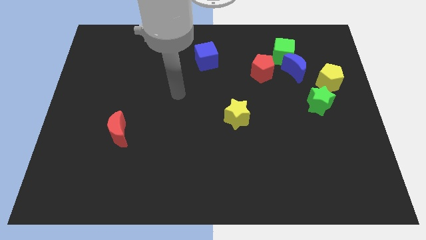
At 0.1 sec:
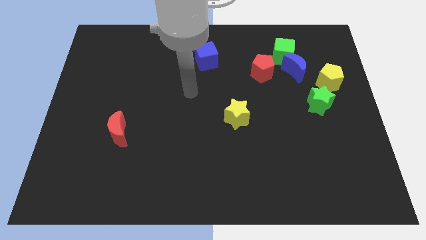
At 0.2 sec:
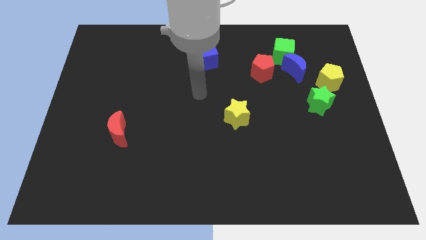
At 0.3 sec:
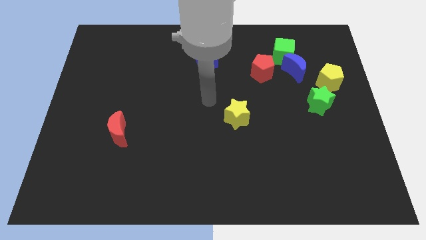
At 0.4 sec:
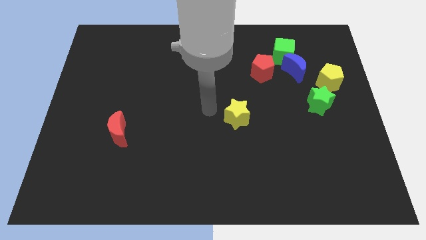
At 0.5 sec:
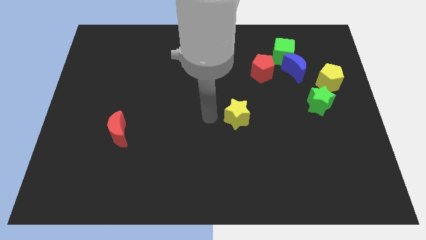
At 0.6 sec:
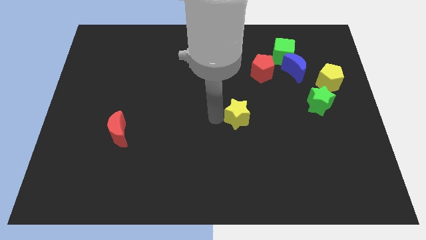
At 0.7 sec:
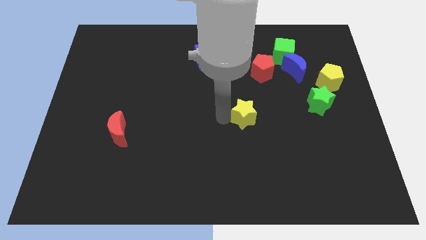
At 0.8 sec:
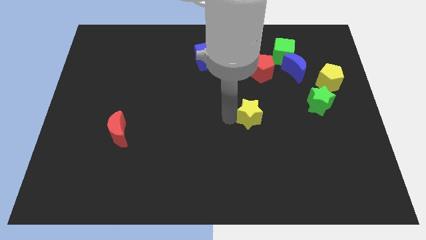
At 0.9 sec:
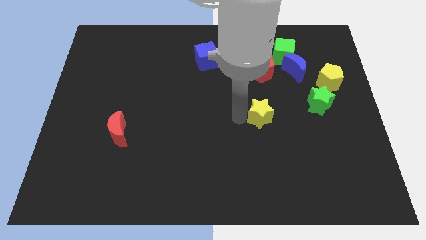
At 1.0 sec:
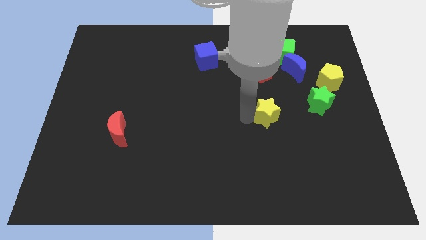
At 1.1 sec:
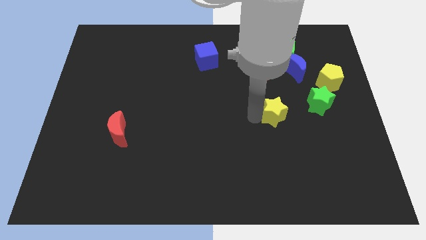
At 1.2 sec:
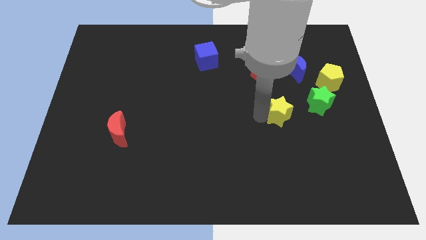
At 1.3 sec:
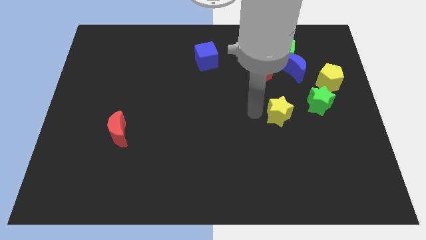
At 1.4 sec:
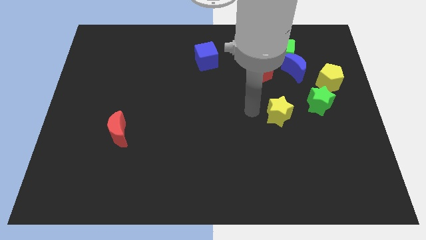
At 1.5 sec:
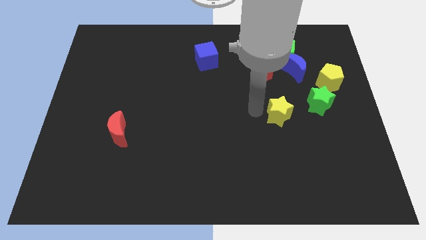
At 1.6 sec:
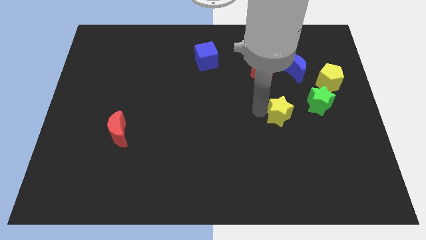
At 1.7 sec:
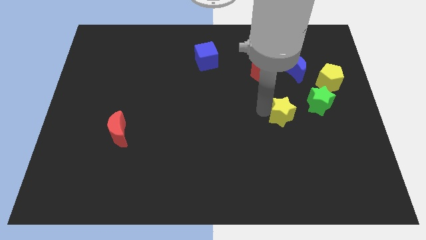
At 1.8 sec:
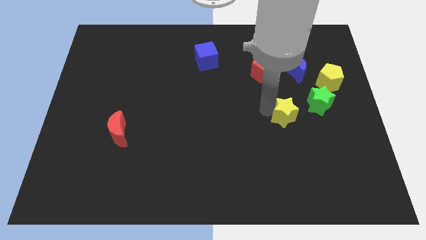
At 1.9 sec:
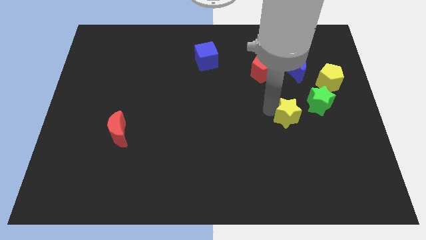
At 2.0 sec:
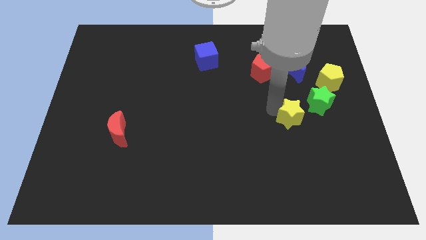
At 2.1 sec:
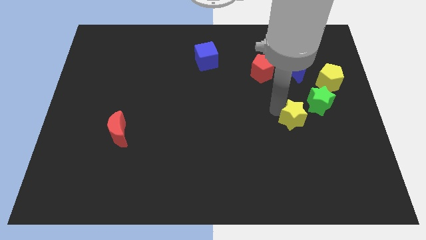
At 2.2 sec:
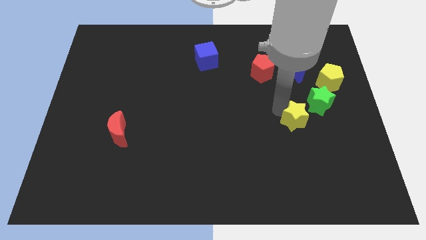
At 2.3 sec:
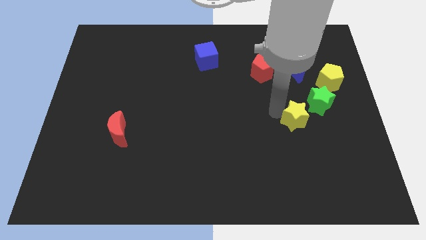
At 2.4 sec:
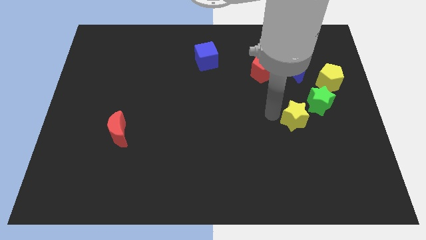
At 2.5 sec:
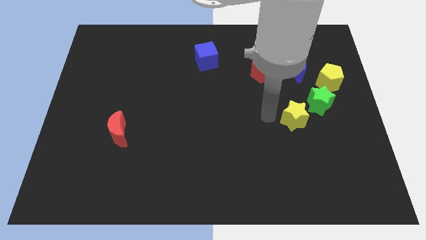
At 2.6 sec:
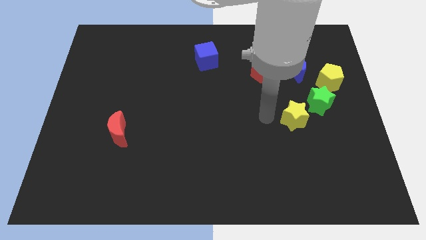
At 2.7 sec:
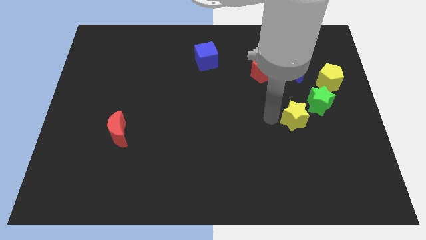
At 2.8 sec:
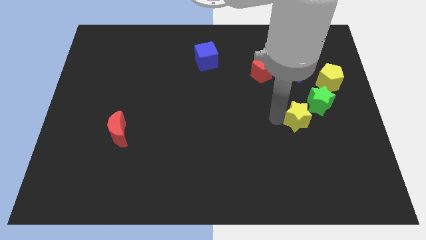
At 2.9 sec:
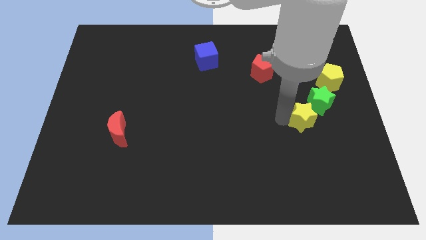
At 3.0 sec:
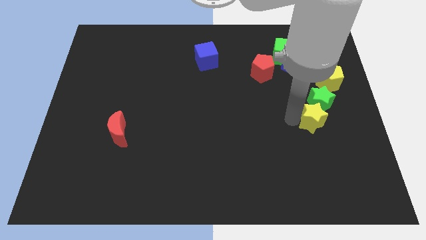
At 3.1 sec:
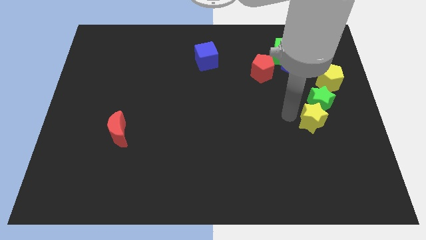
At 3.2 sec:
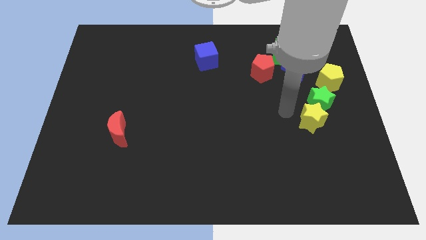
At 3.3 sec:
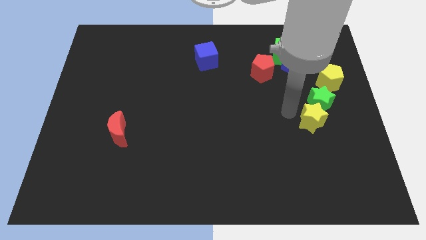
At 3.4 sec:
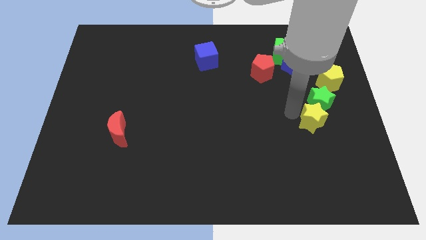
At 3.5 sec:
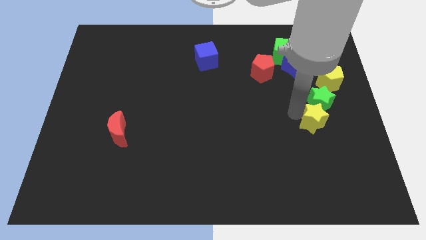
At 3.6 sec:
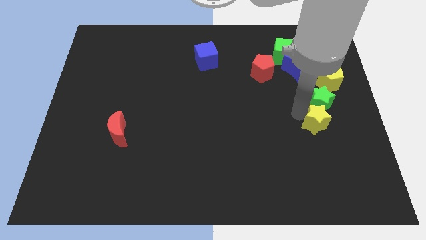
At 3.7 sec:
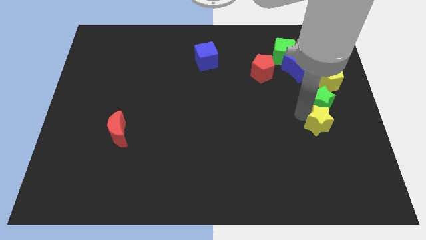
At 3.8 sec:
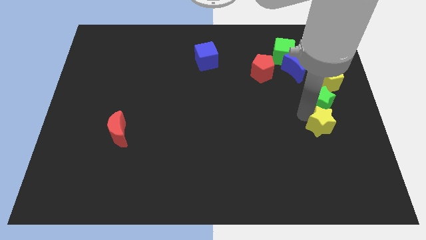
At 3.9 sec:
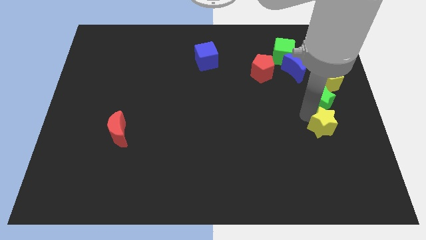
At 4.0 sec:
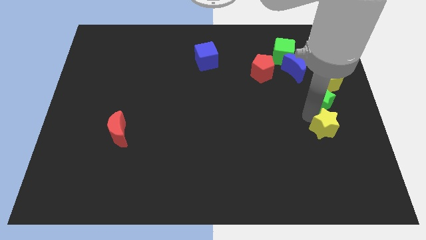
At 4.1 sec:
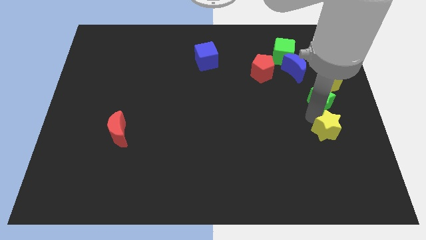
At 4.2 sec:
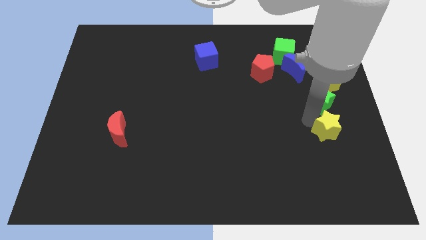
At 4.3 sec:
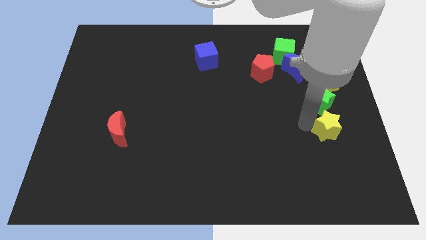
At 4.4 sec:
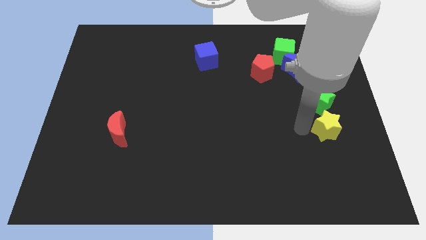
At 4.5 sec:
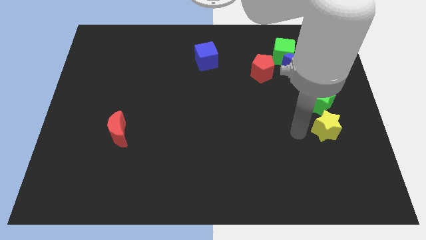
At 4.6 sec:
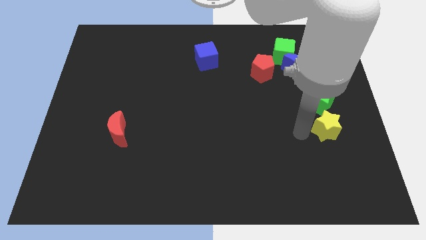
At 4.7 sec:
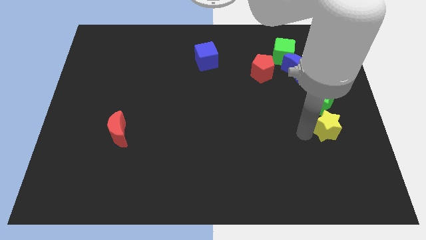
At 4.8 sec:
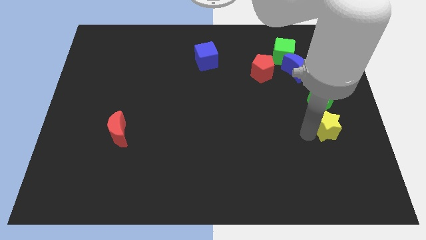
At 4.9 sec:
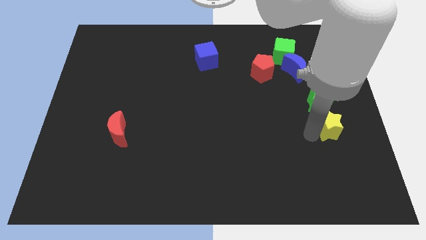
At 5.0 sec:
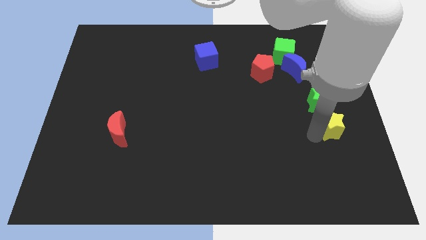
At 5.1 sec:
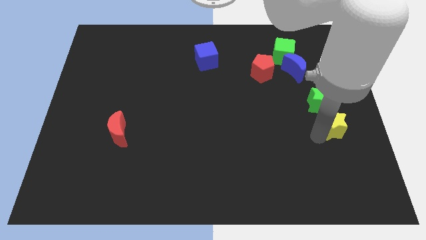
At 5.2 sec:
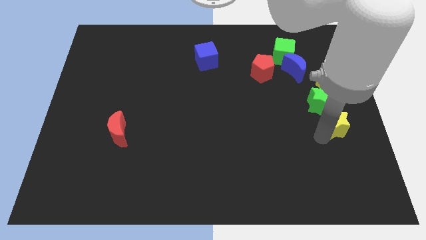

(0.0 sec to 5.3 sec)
push the yellow star to the right side of the board

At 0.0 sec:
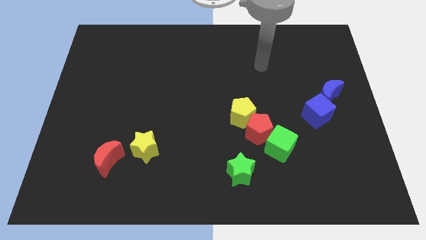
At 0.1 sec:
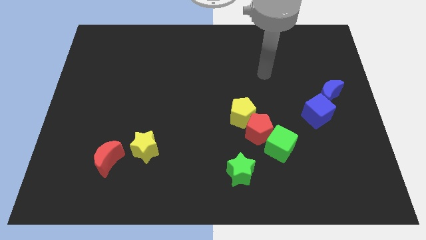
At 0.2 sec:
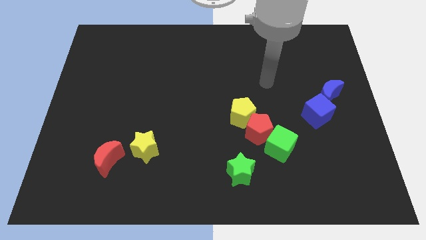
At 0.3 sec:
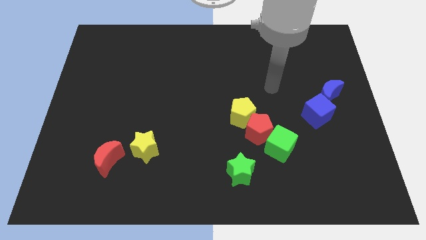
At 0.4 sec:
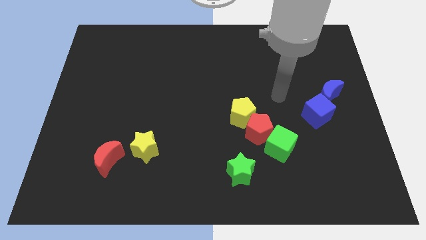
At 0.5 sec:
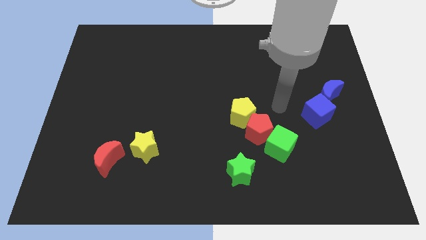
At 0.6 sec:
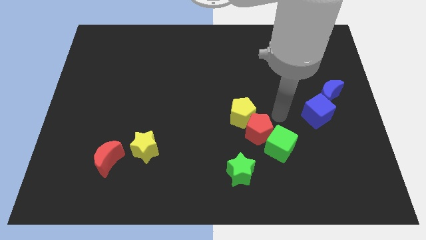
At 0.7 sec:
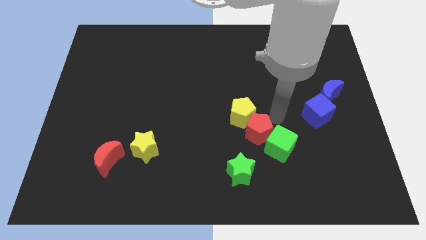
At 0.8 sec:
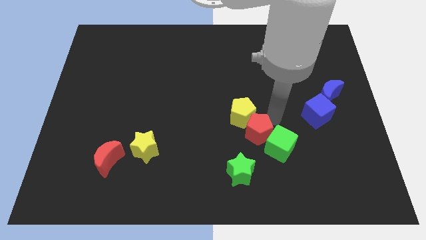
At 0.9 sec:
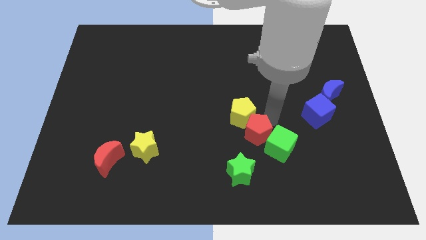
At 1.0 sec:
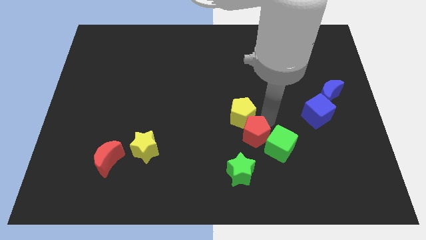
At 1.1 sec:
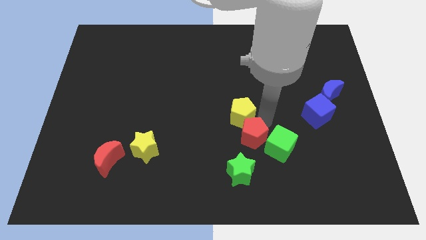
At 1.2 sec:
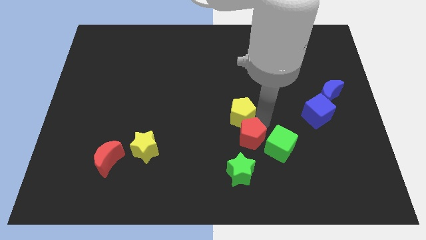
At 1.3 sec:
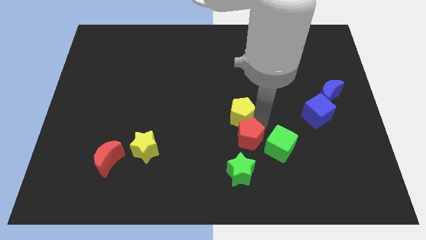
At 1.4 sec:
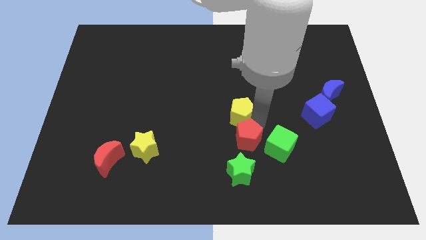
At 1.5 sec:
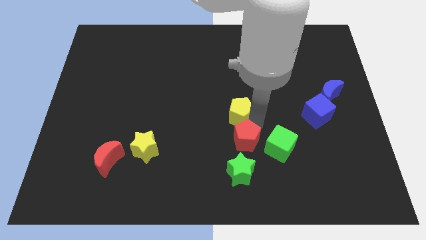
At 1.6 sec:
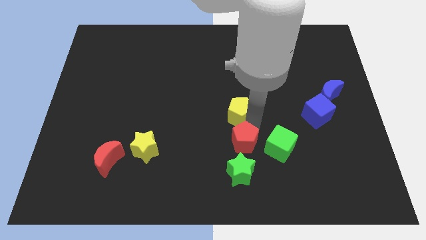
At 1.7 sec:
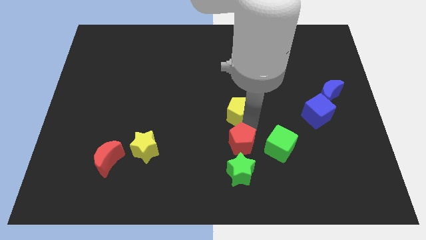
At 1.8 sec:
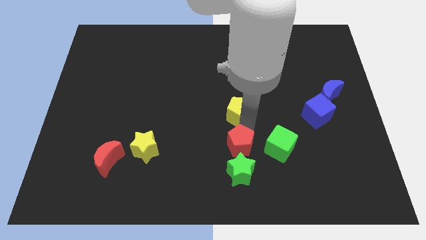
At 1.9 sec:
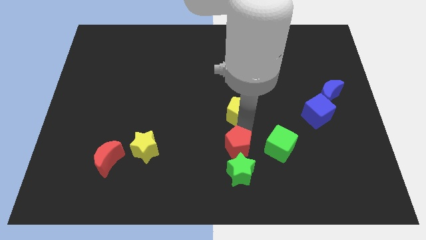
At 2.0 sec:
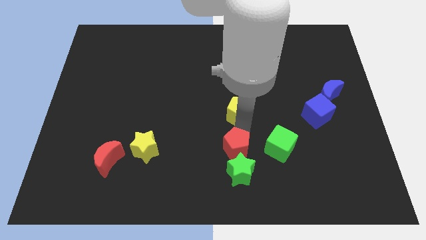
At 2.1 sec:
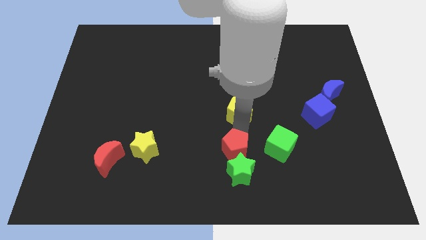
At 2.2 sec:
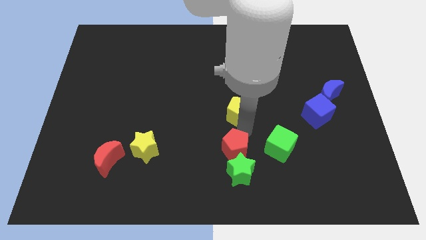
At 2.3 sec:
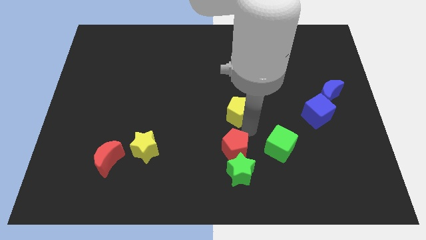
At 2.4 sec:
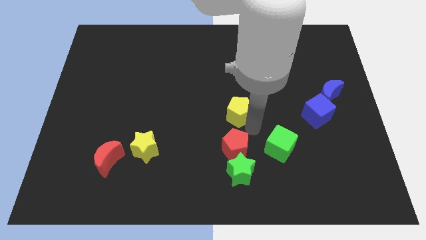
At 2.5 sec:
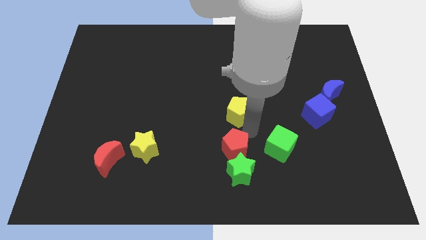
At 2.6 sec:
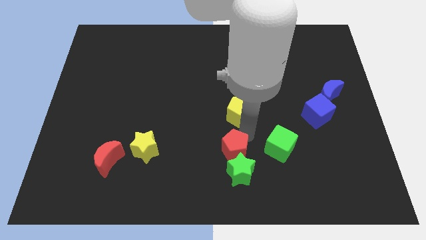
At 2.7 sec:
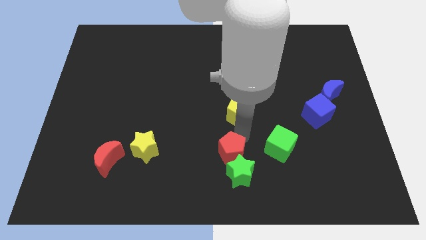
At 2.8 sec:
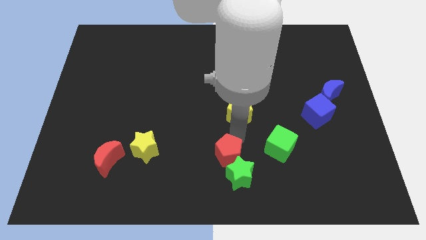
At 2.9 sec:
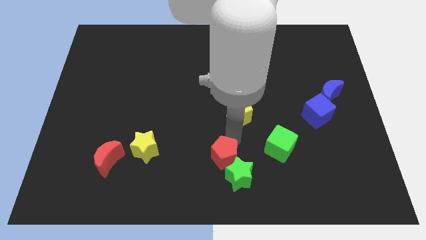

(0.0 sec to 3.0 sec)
slide the red pentagon to the bottom
